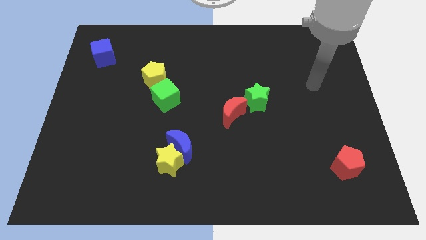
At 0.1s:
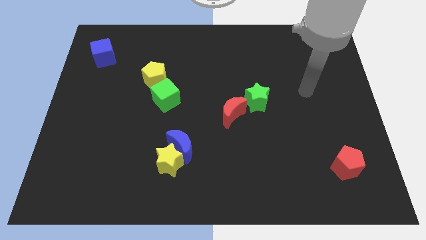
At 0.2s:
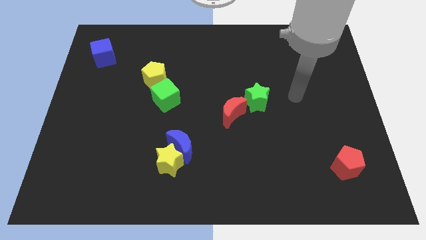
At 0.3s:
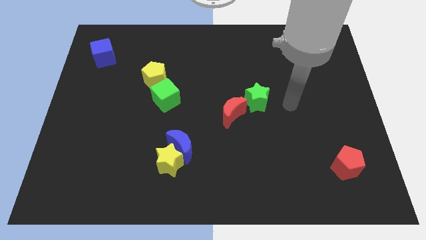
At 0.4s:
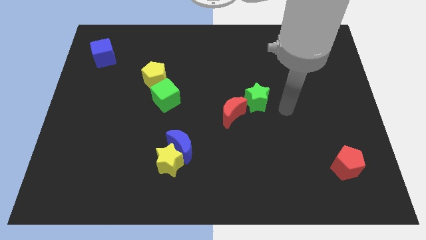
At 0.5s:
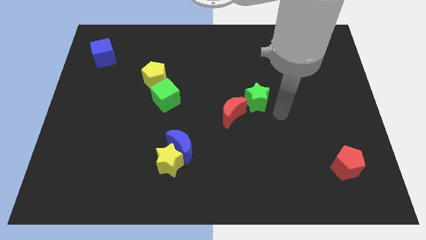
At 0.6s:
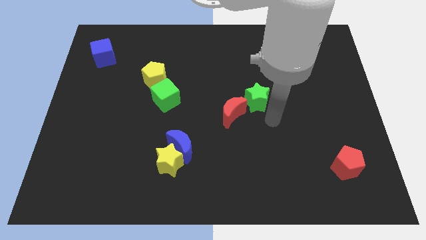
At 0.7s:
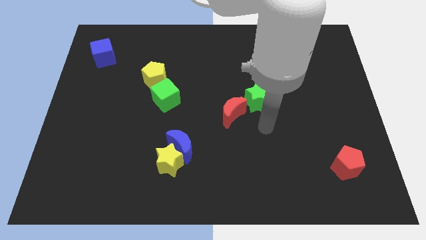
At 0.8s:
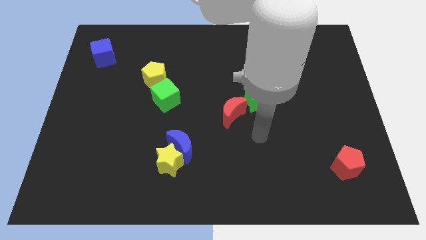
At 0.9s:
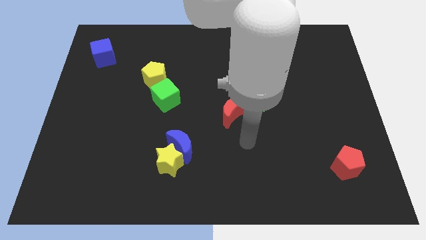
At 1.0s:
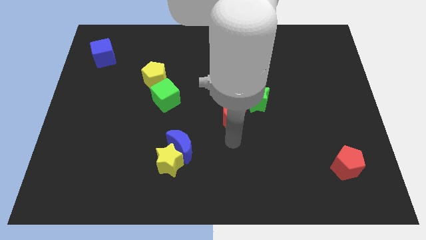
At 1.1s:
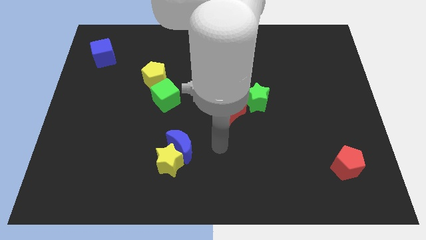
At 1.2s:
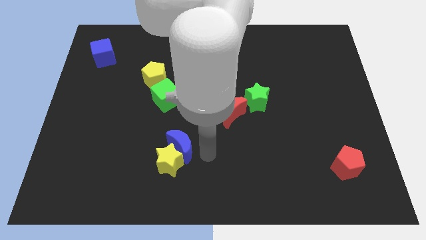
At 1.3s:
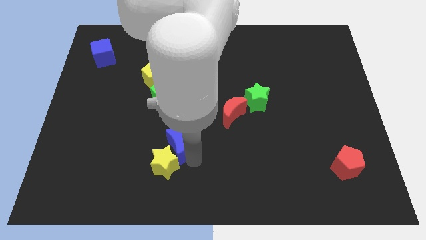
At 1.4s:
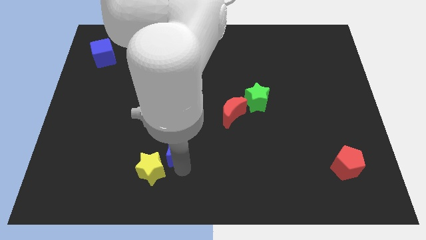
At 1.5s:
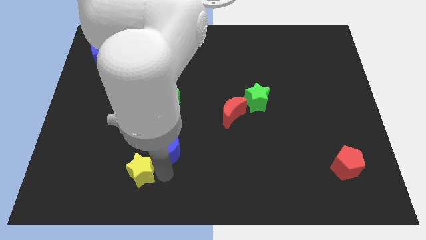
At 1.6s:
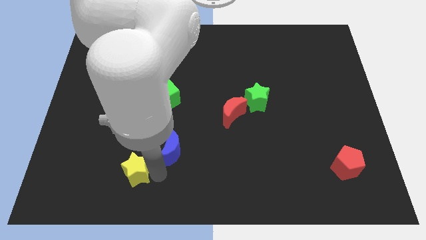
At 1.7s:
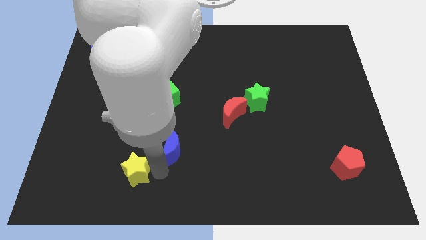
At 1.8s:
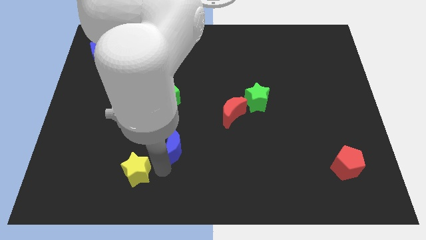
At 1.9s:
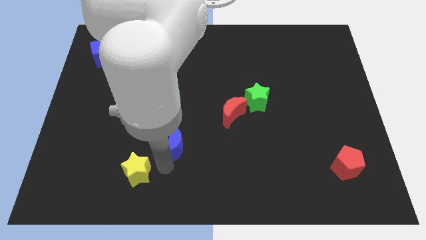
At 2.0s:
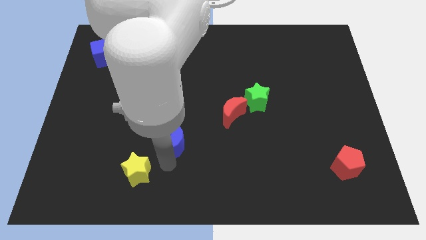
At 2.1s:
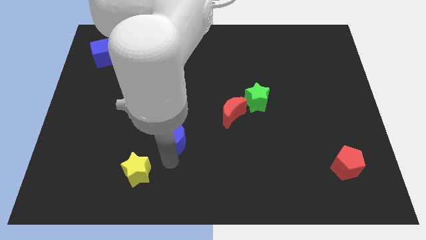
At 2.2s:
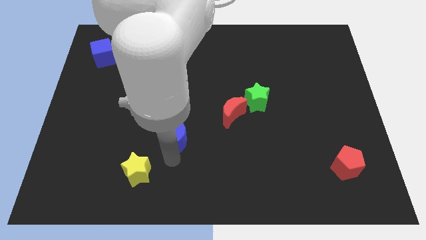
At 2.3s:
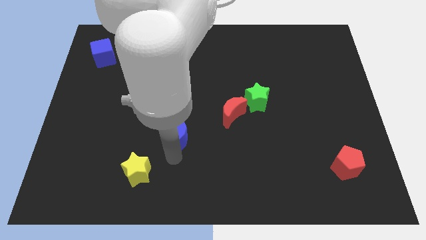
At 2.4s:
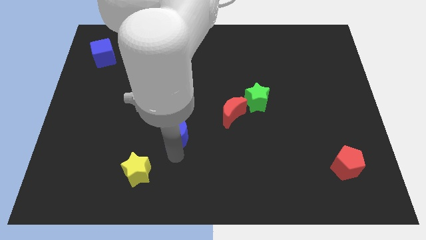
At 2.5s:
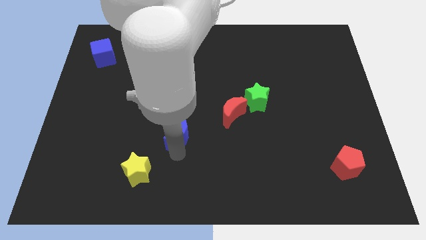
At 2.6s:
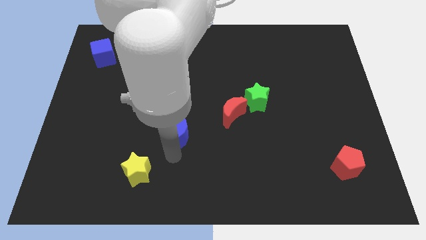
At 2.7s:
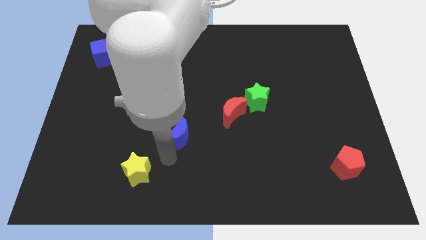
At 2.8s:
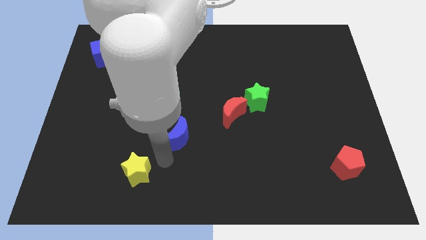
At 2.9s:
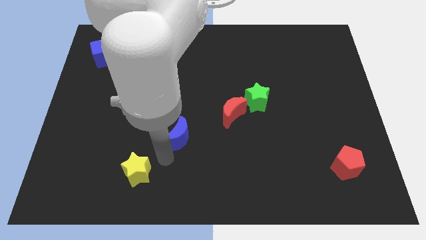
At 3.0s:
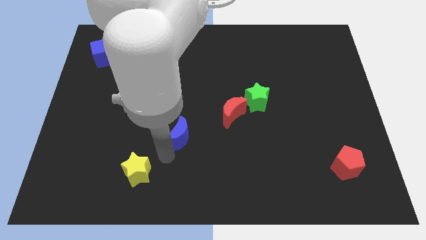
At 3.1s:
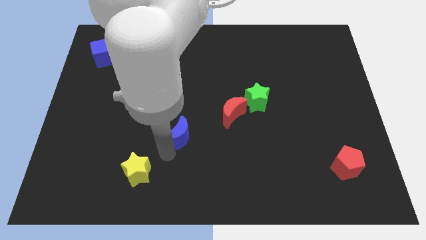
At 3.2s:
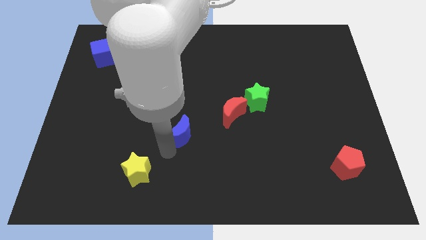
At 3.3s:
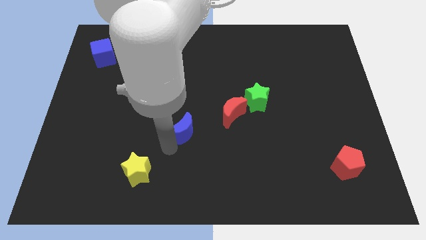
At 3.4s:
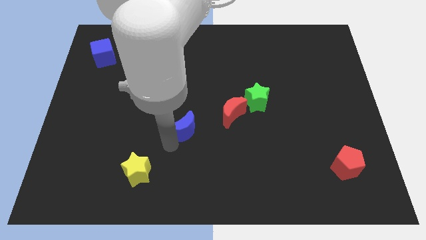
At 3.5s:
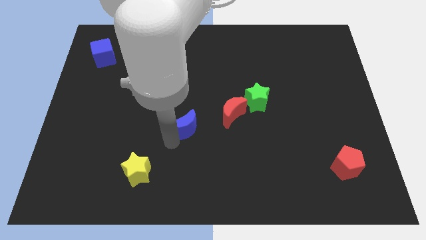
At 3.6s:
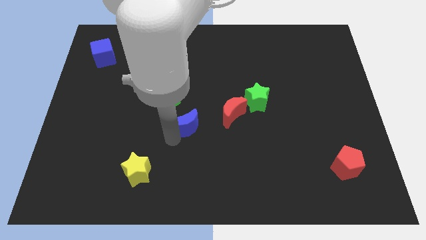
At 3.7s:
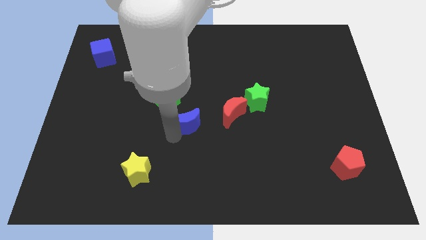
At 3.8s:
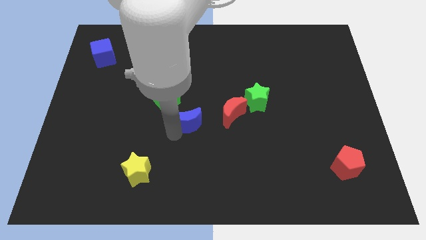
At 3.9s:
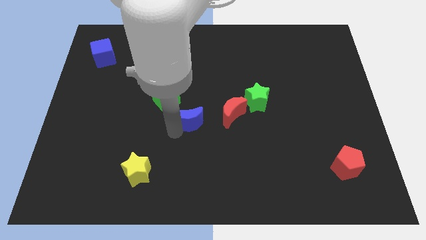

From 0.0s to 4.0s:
move the blue moon up a little

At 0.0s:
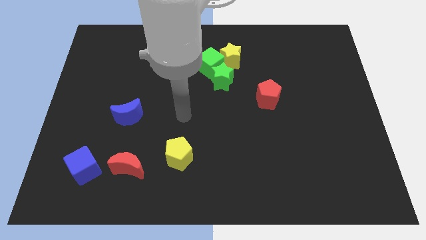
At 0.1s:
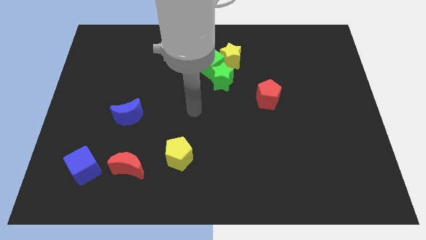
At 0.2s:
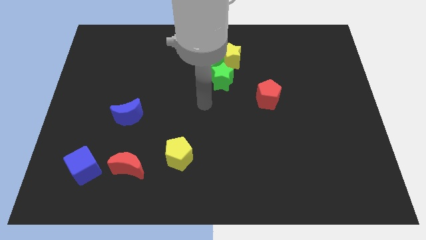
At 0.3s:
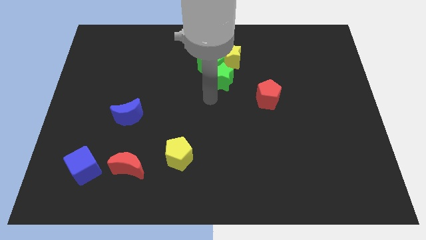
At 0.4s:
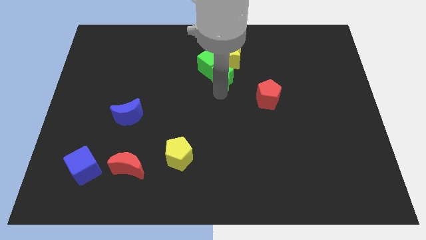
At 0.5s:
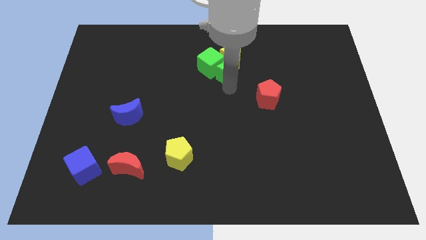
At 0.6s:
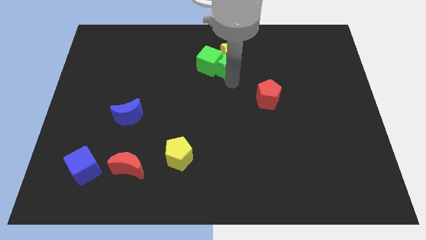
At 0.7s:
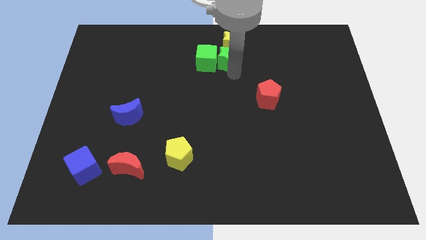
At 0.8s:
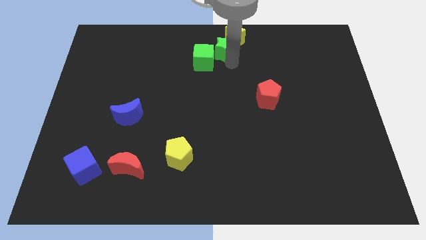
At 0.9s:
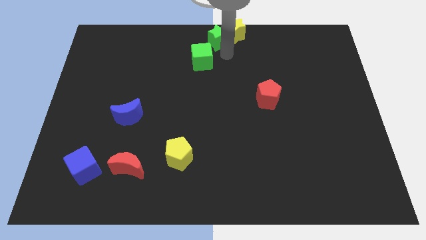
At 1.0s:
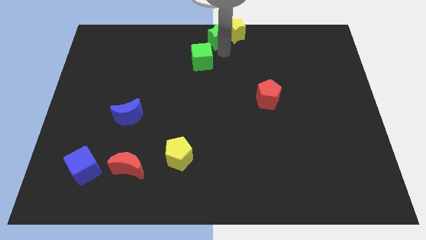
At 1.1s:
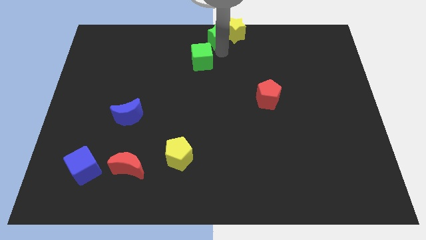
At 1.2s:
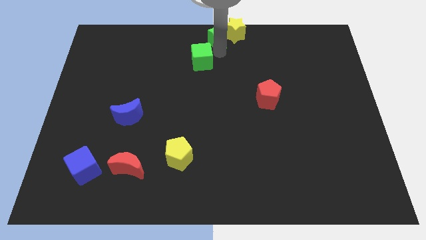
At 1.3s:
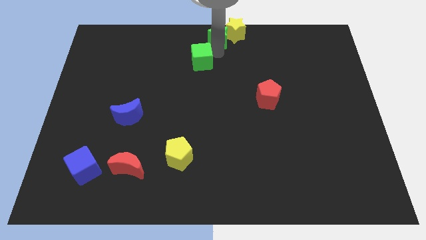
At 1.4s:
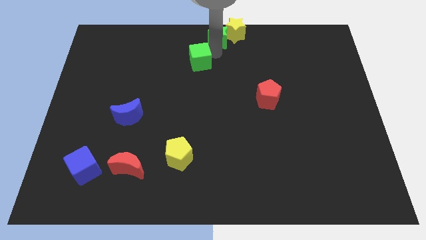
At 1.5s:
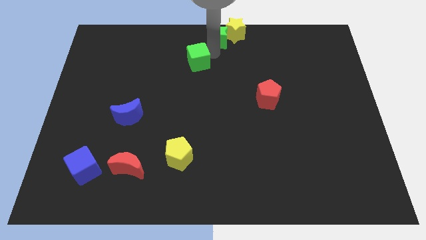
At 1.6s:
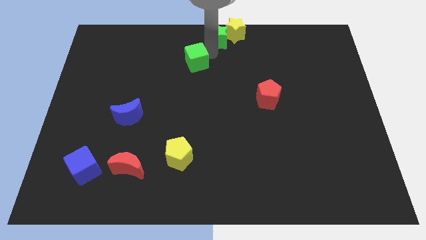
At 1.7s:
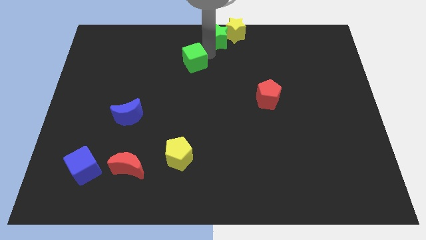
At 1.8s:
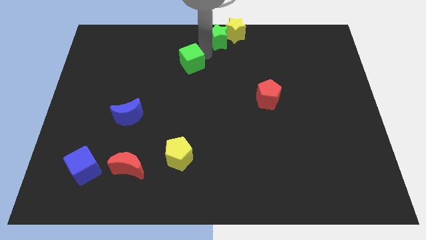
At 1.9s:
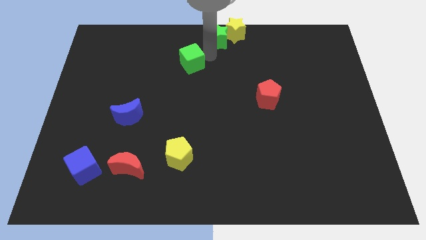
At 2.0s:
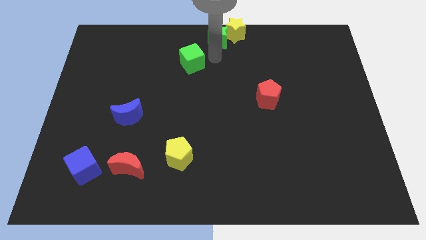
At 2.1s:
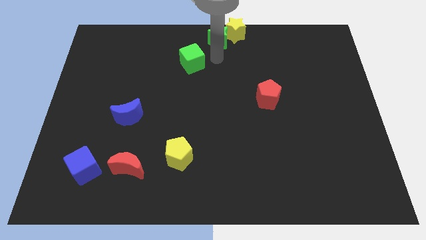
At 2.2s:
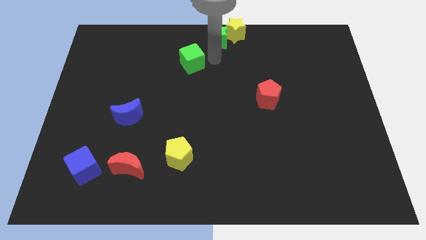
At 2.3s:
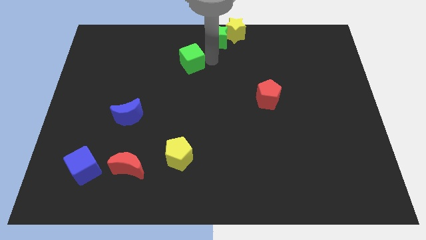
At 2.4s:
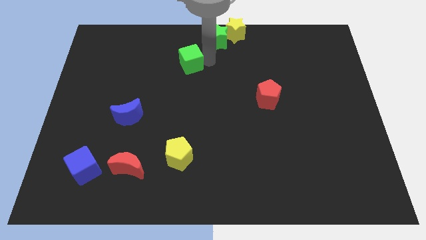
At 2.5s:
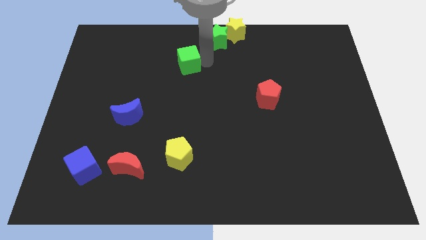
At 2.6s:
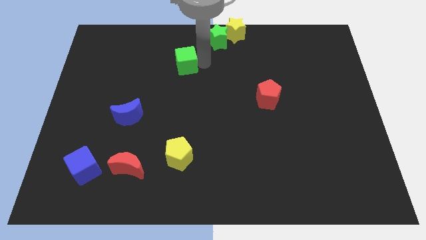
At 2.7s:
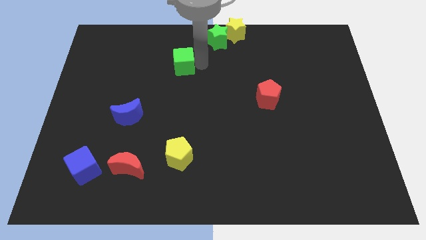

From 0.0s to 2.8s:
slide the green cube slightly left

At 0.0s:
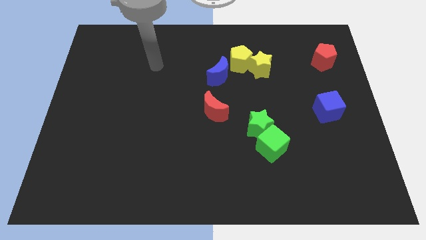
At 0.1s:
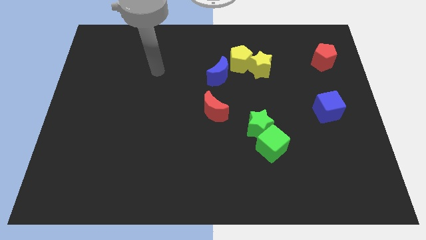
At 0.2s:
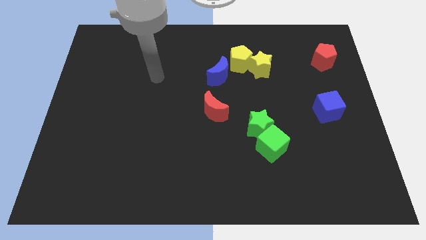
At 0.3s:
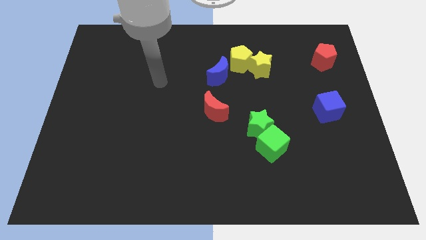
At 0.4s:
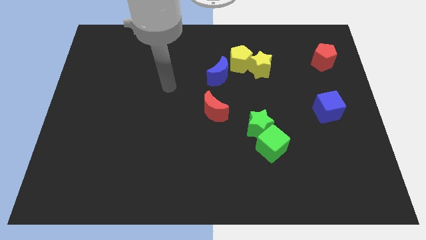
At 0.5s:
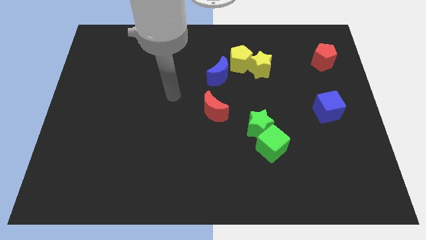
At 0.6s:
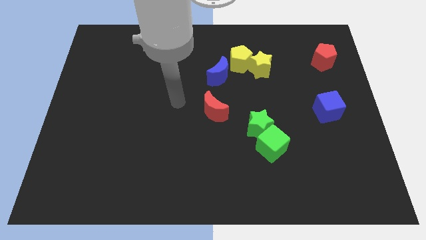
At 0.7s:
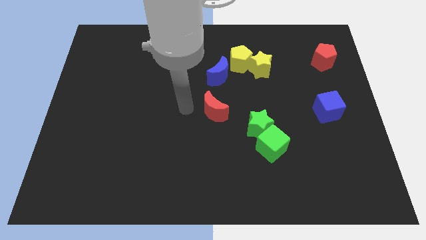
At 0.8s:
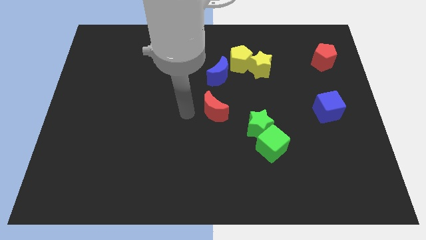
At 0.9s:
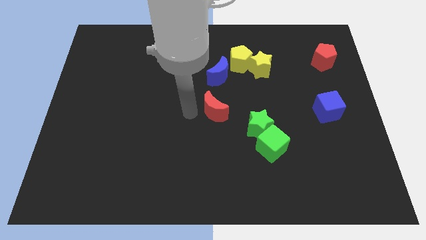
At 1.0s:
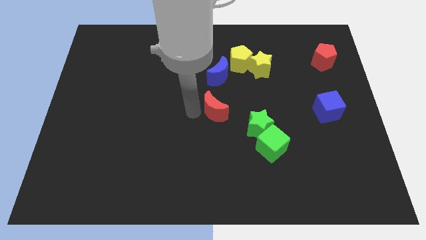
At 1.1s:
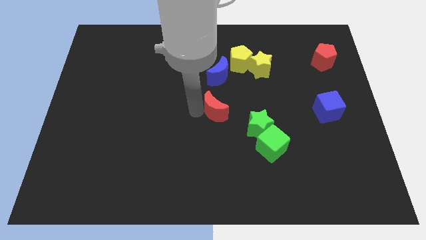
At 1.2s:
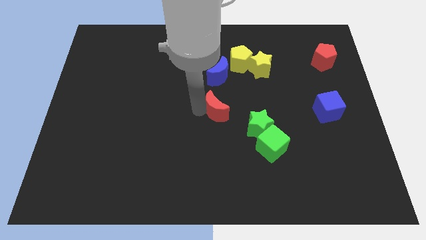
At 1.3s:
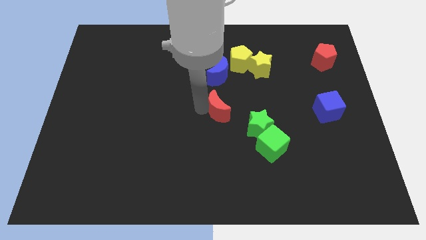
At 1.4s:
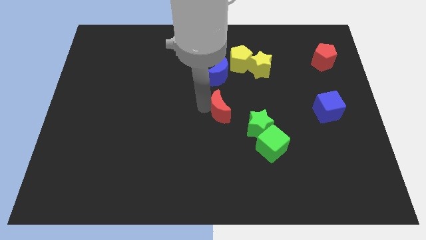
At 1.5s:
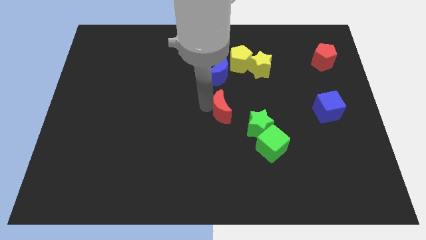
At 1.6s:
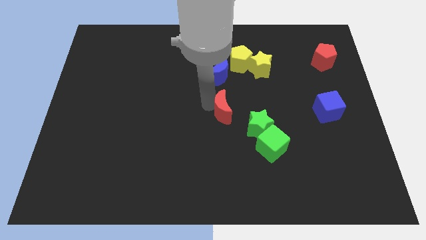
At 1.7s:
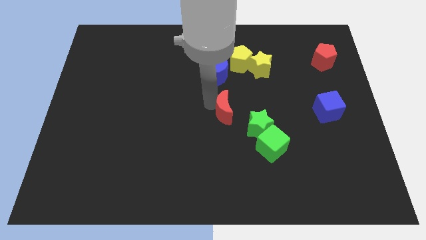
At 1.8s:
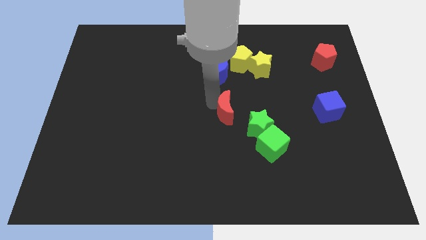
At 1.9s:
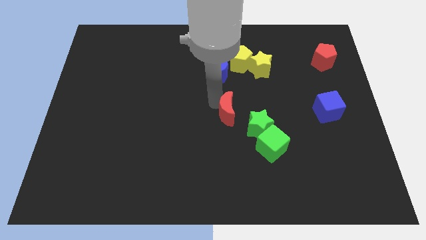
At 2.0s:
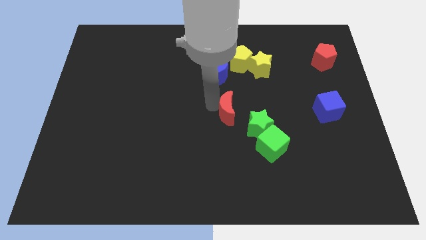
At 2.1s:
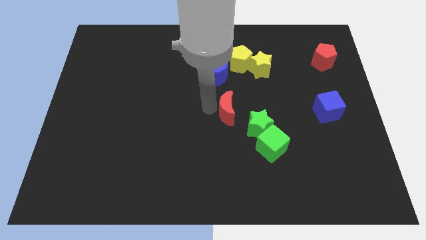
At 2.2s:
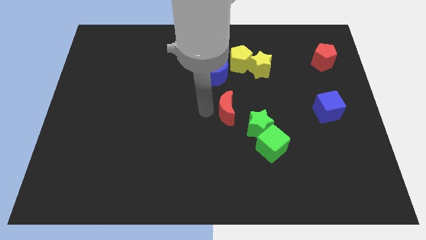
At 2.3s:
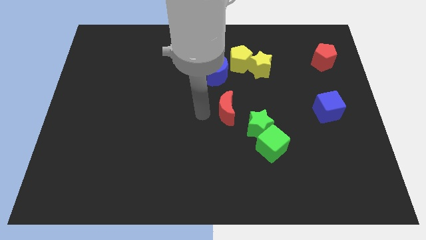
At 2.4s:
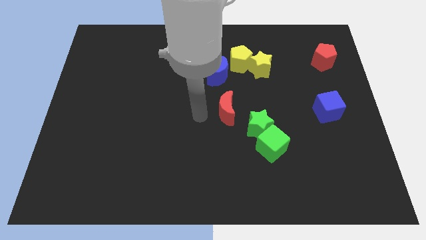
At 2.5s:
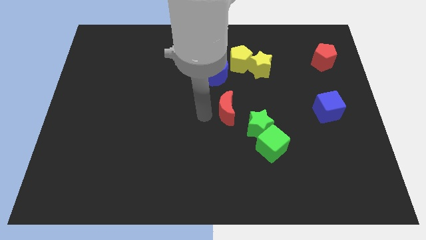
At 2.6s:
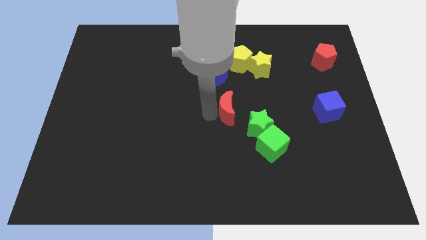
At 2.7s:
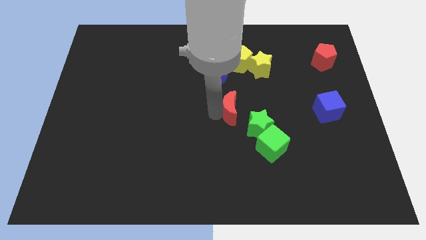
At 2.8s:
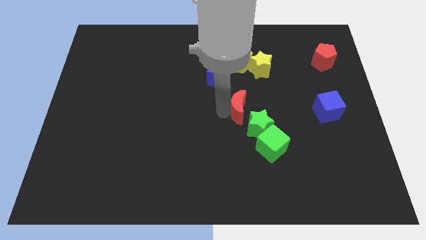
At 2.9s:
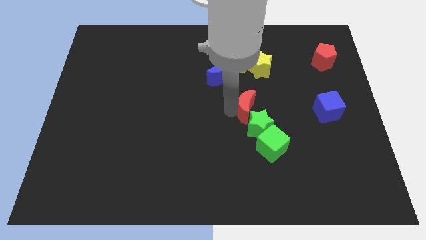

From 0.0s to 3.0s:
slide the red moon to the right a bit
